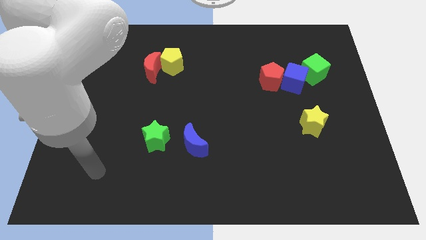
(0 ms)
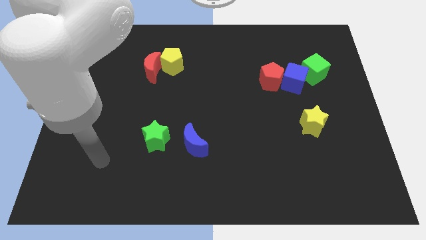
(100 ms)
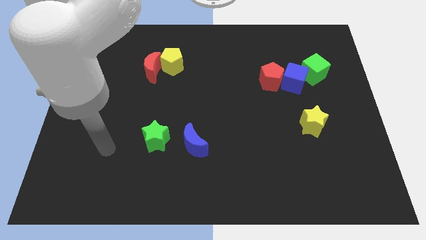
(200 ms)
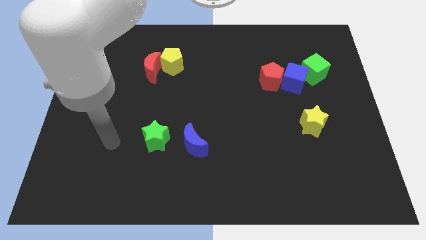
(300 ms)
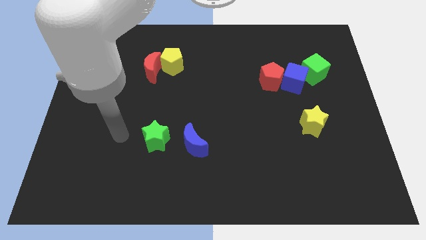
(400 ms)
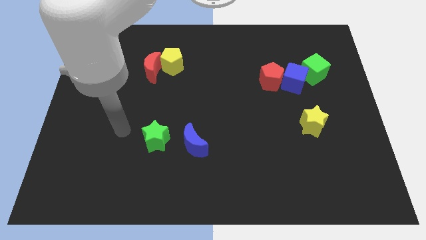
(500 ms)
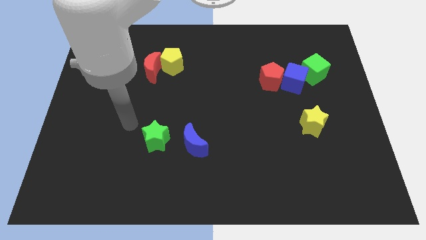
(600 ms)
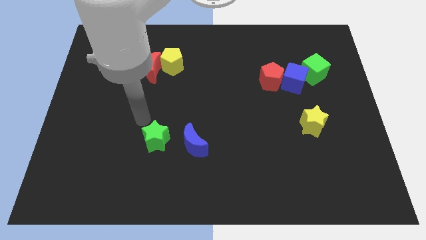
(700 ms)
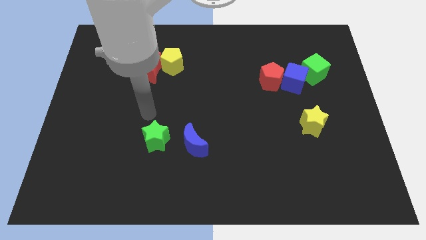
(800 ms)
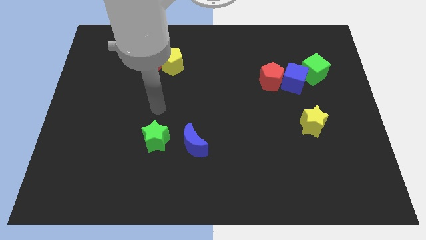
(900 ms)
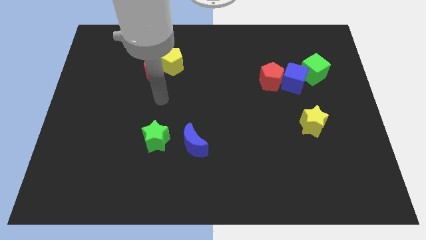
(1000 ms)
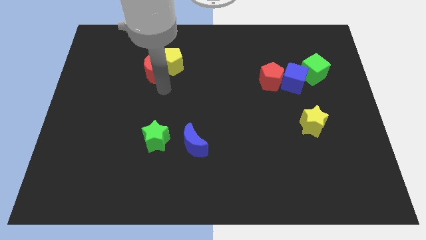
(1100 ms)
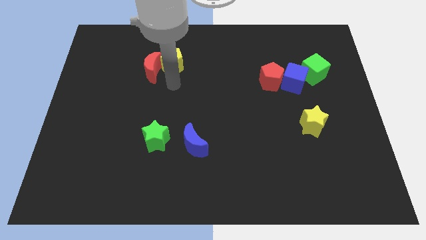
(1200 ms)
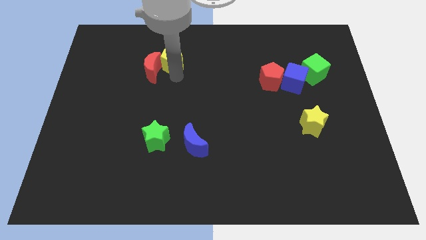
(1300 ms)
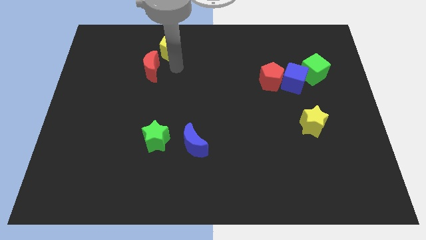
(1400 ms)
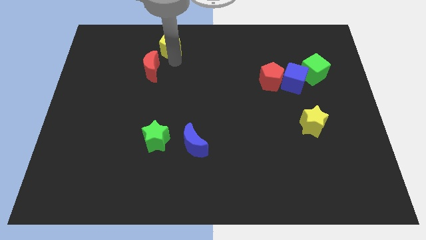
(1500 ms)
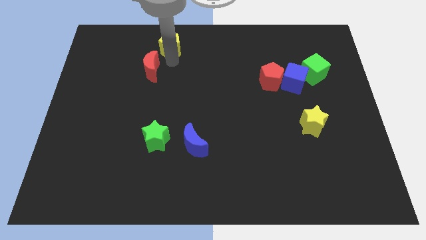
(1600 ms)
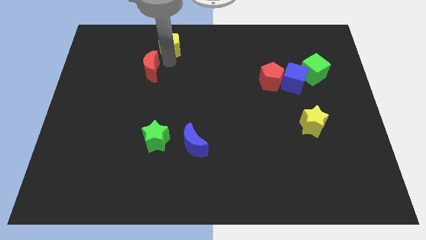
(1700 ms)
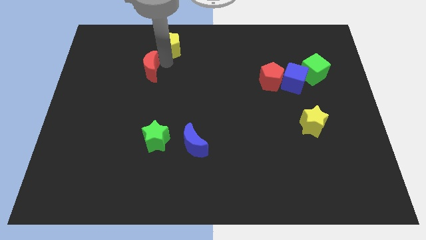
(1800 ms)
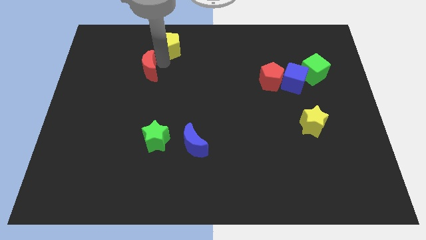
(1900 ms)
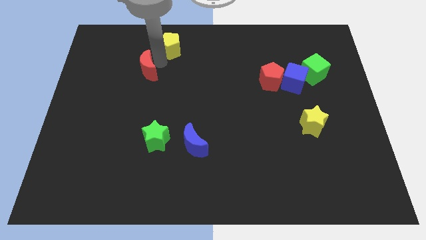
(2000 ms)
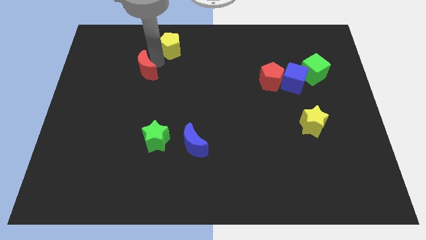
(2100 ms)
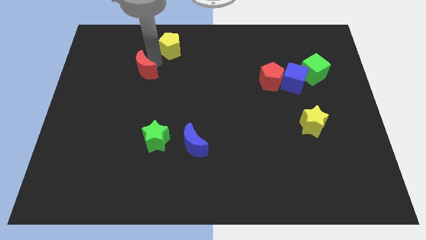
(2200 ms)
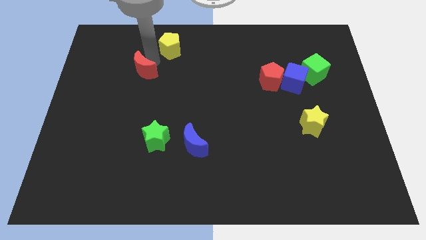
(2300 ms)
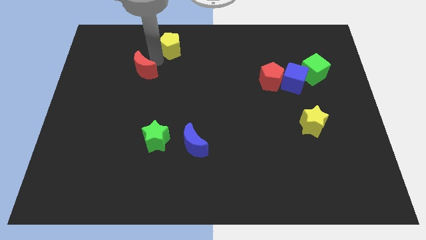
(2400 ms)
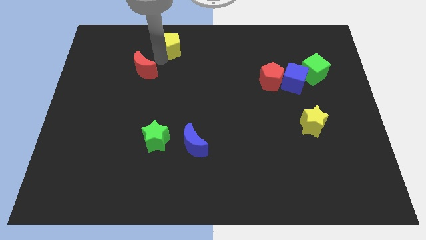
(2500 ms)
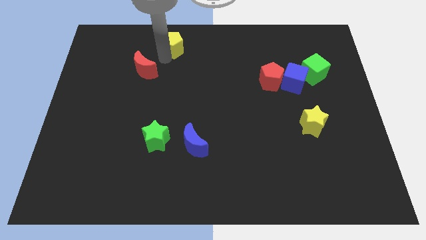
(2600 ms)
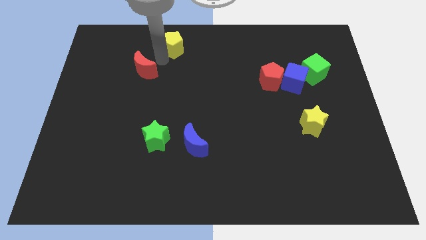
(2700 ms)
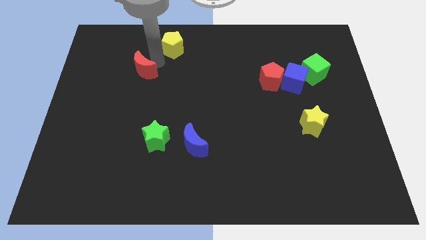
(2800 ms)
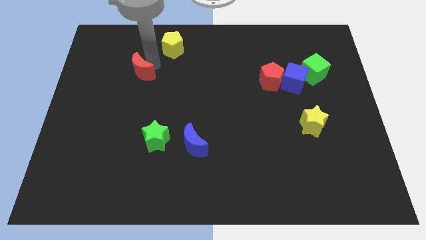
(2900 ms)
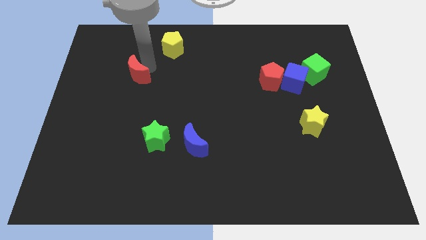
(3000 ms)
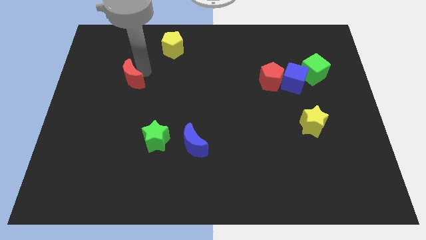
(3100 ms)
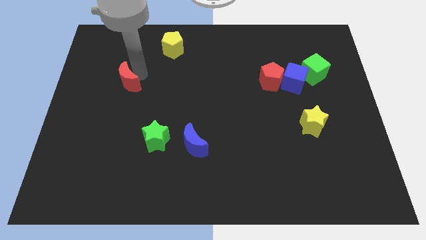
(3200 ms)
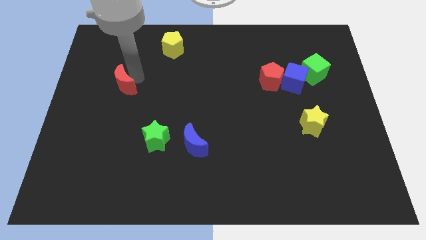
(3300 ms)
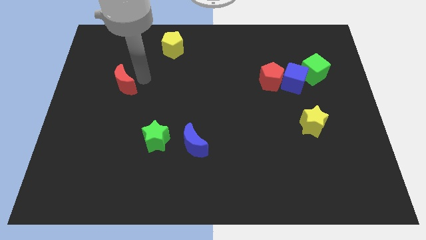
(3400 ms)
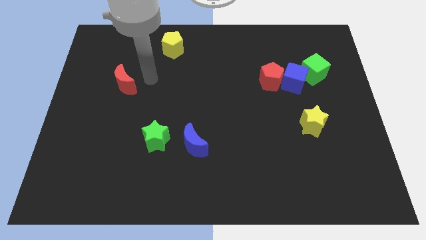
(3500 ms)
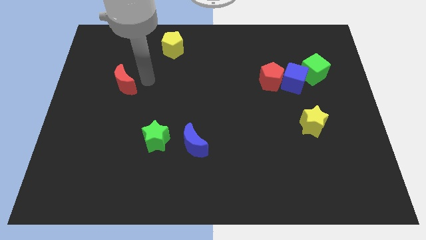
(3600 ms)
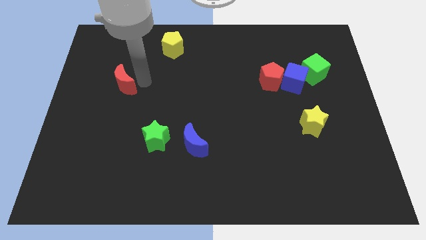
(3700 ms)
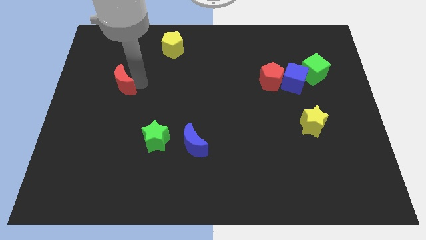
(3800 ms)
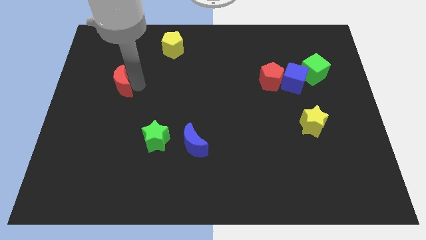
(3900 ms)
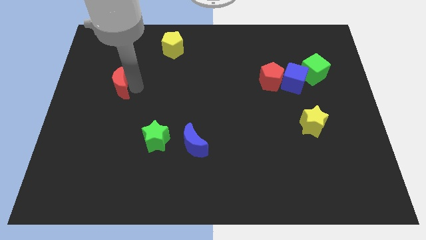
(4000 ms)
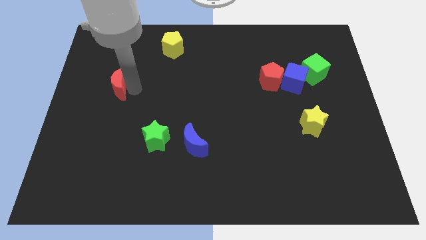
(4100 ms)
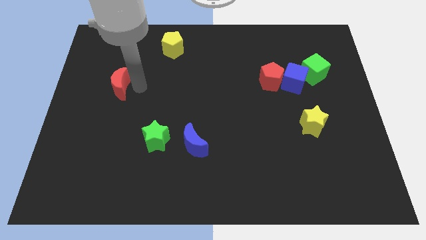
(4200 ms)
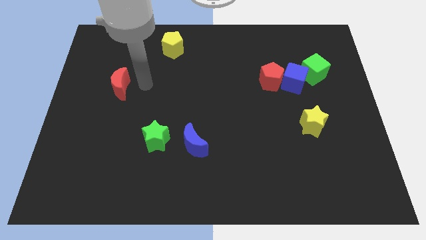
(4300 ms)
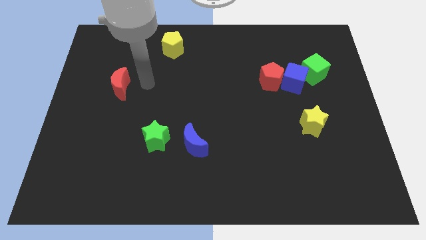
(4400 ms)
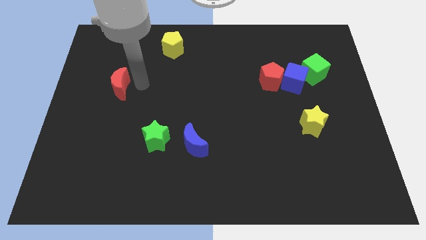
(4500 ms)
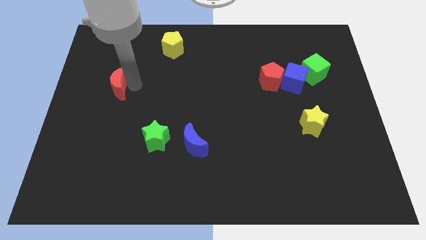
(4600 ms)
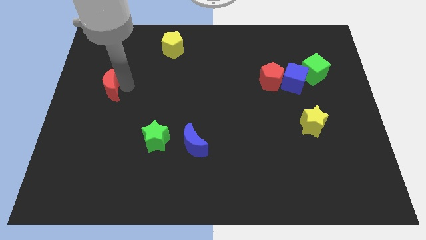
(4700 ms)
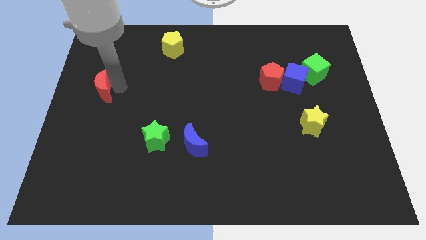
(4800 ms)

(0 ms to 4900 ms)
move the red moon to the center left

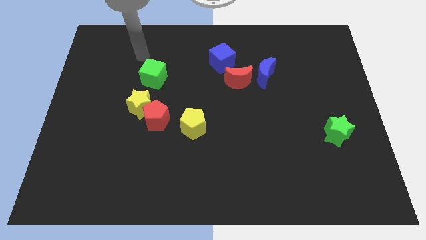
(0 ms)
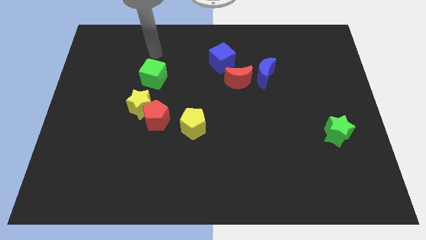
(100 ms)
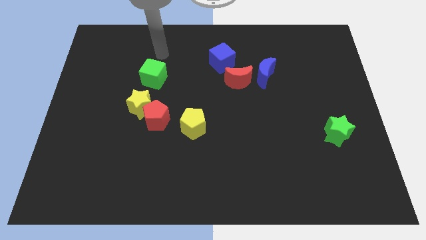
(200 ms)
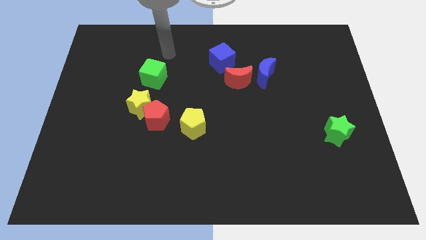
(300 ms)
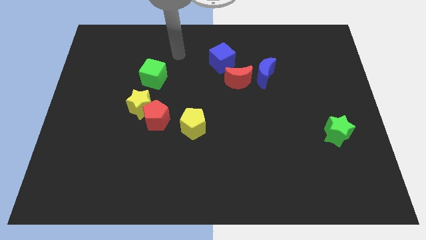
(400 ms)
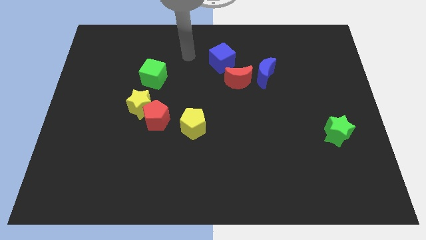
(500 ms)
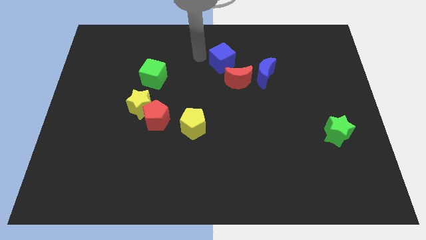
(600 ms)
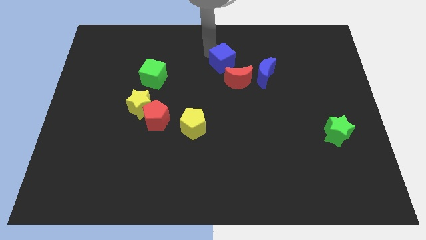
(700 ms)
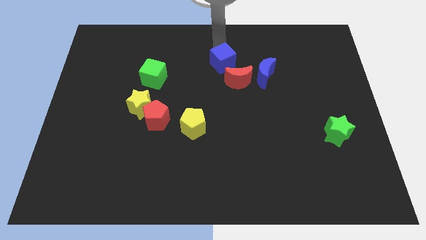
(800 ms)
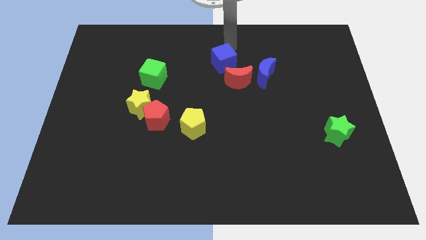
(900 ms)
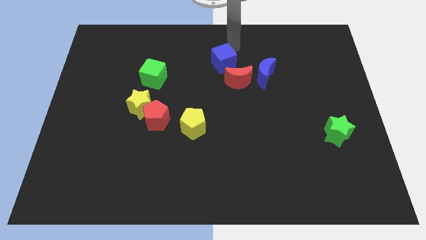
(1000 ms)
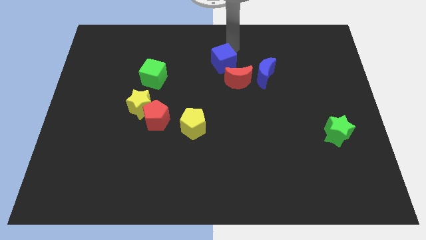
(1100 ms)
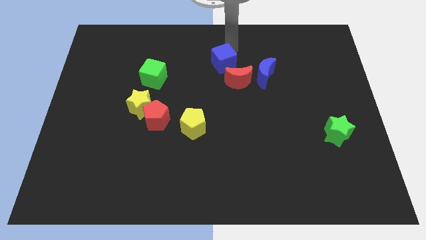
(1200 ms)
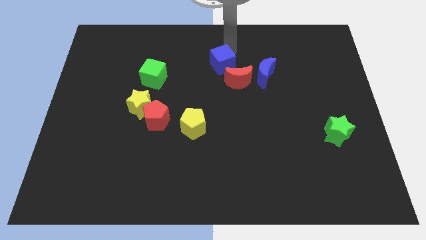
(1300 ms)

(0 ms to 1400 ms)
move the blue cube to the center of the board

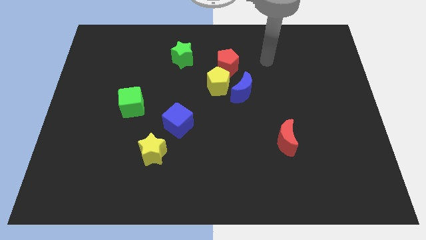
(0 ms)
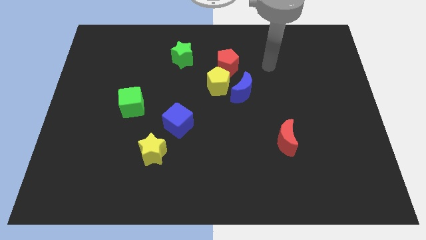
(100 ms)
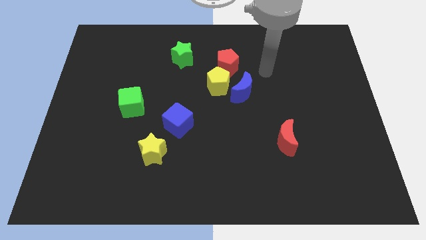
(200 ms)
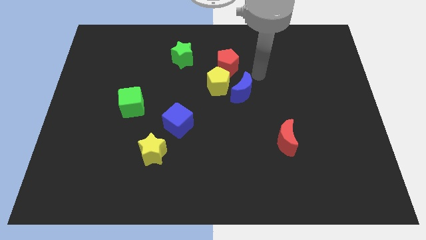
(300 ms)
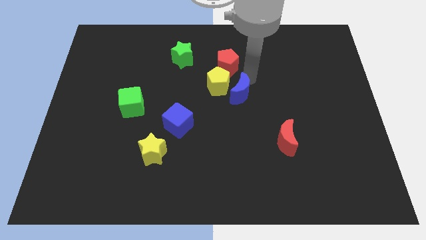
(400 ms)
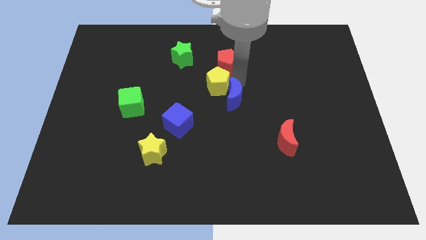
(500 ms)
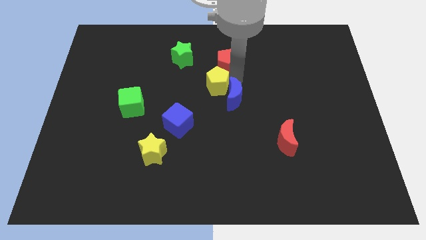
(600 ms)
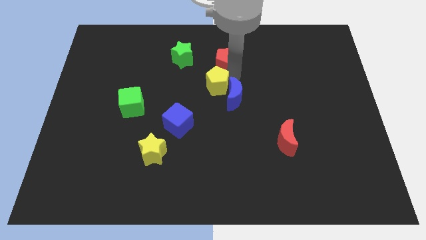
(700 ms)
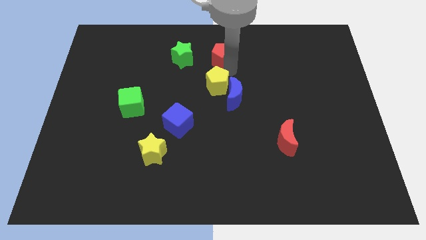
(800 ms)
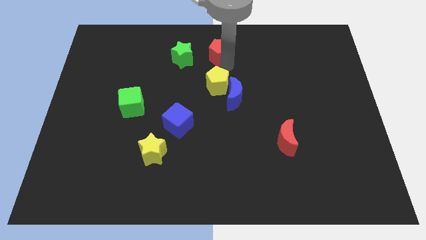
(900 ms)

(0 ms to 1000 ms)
put the red pentagon to the top side
